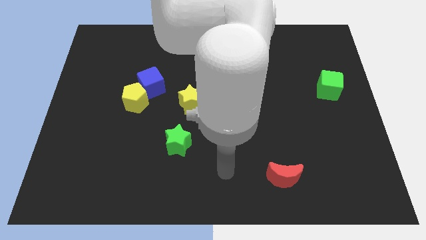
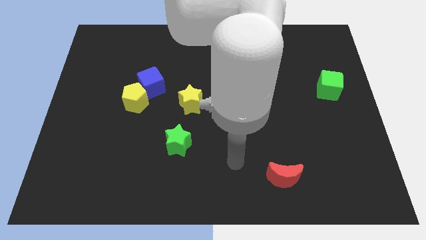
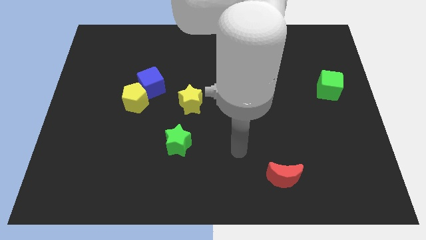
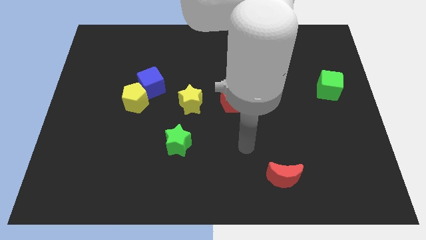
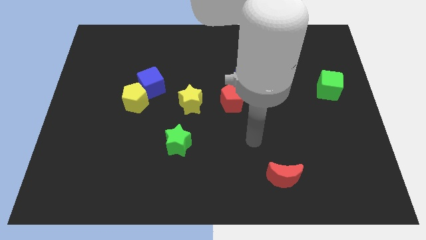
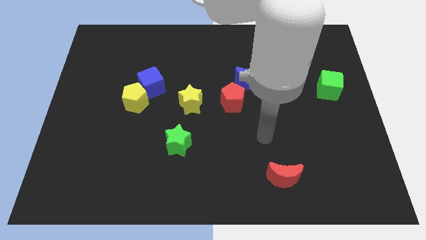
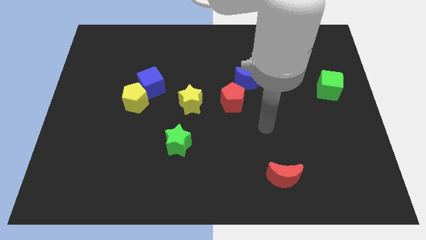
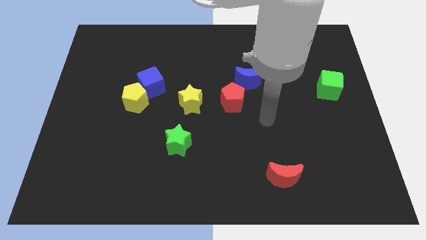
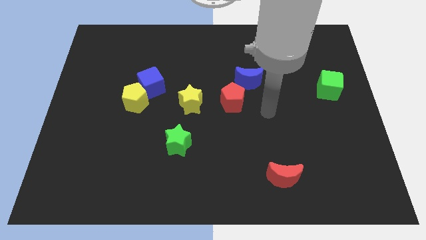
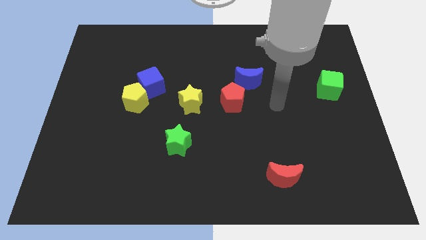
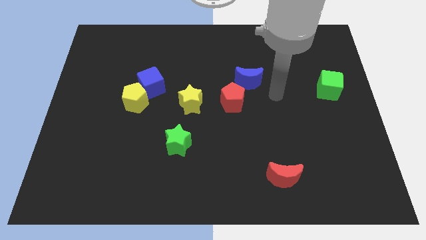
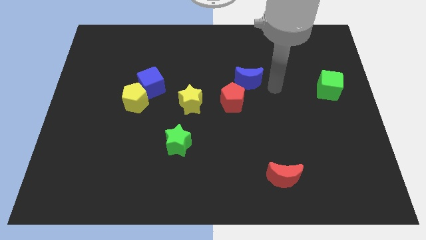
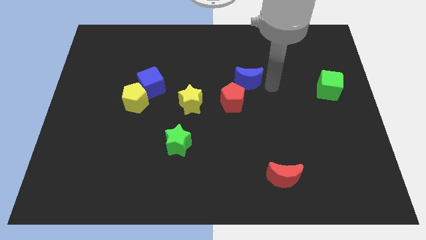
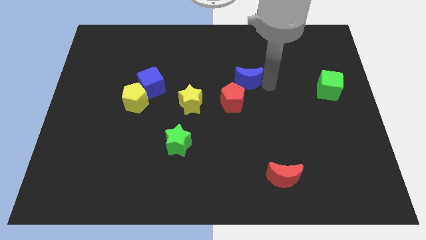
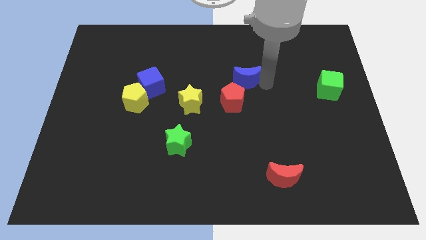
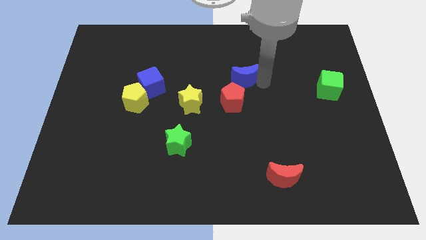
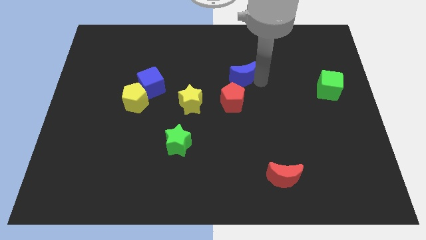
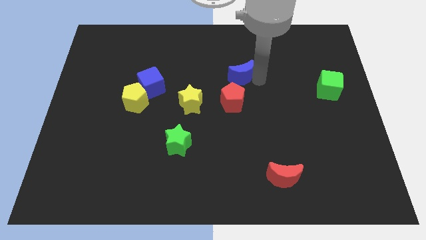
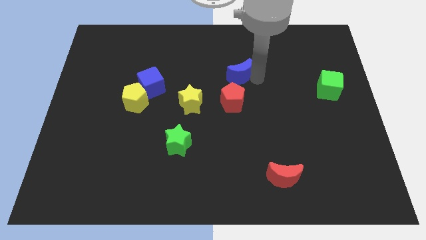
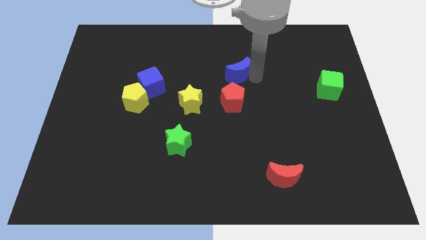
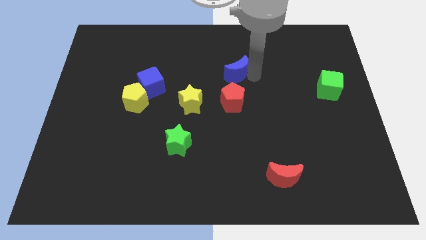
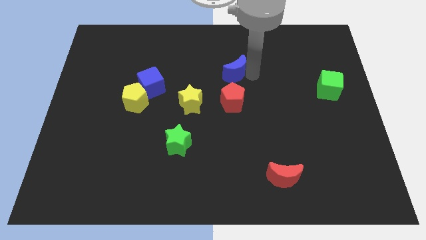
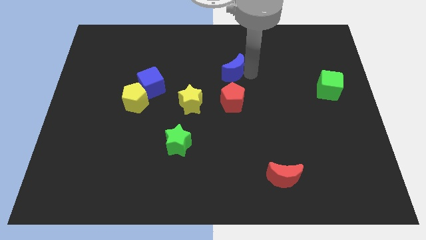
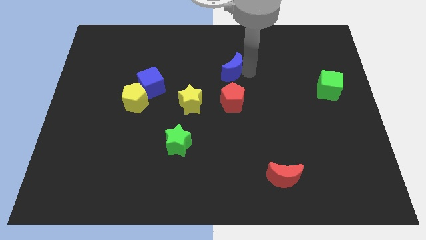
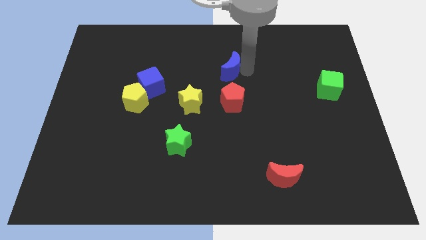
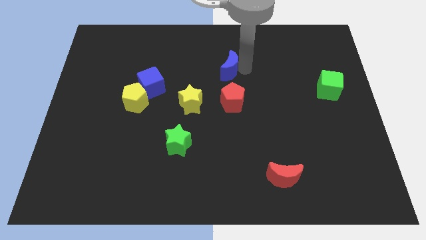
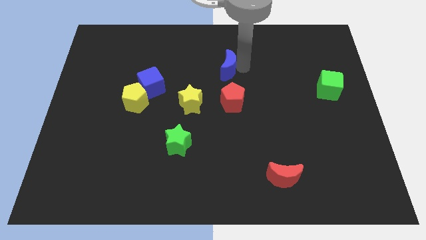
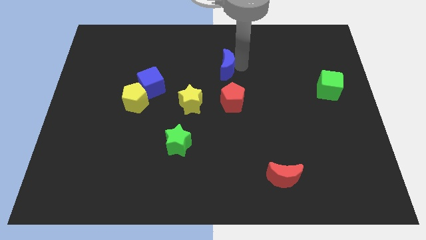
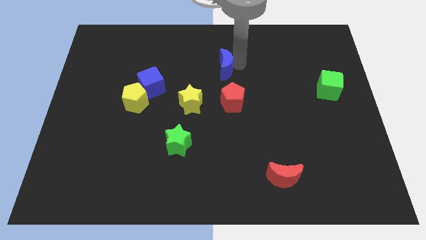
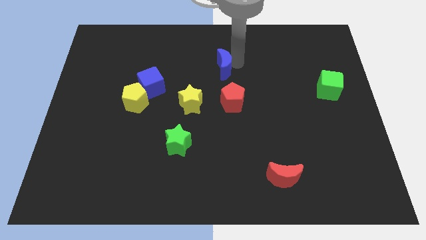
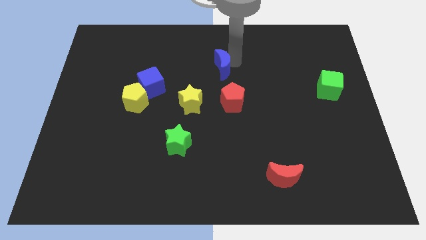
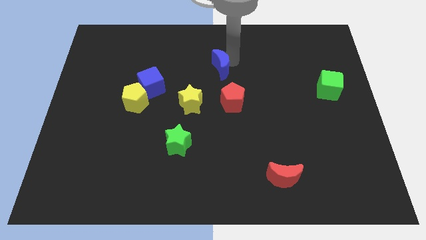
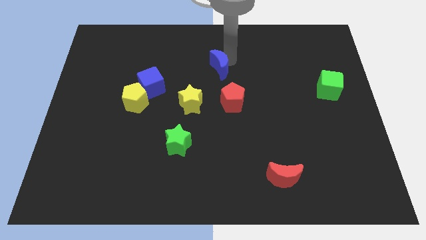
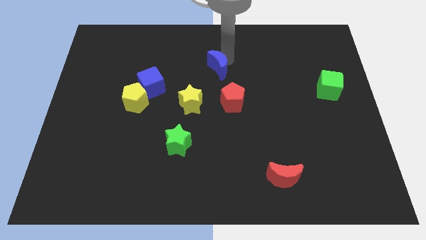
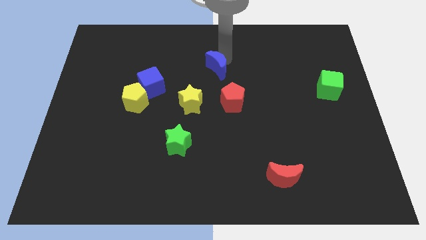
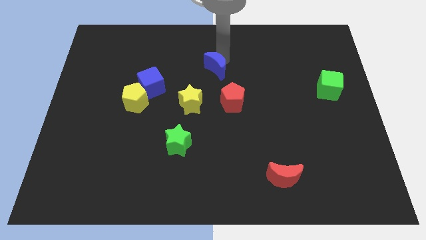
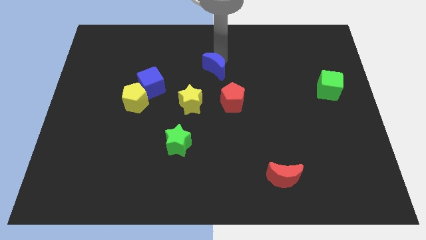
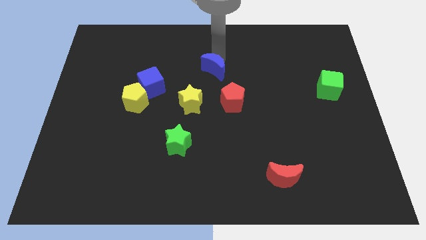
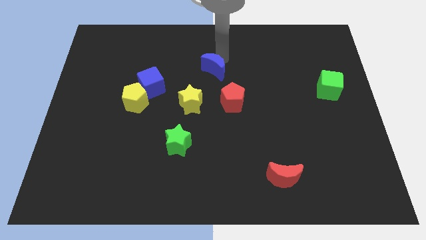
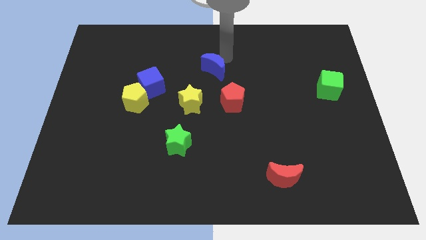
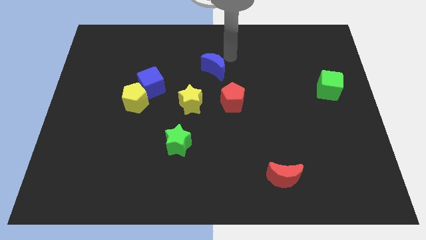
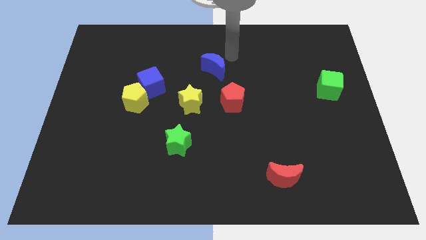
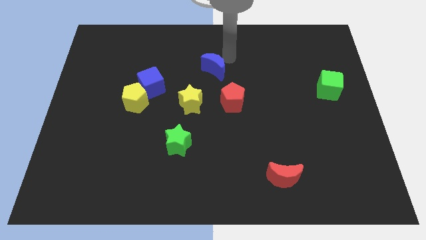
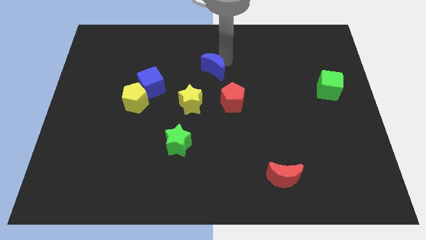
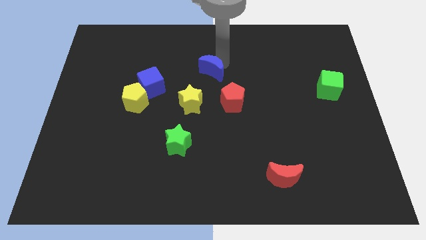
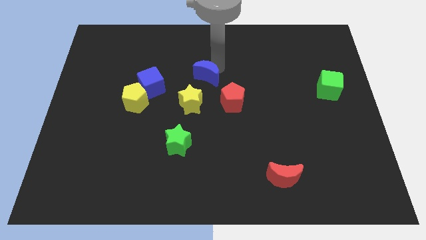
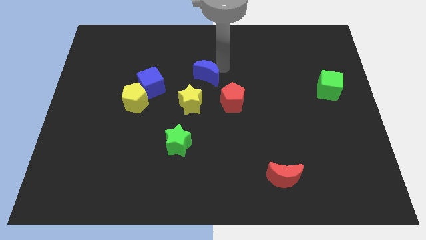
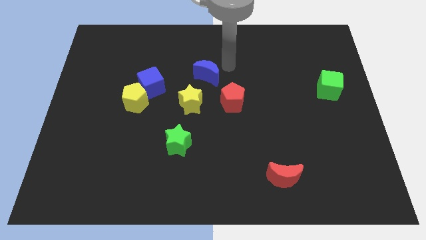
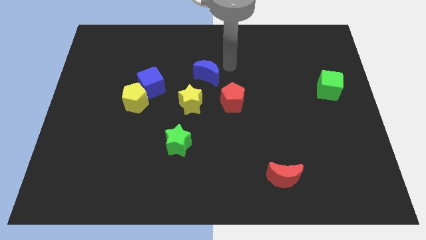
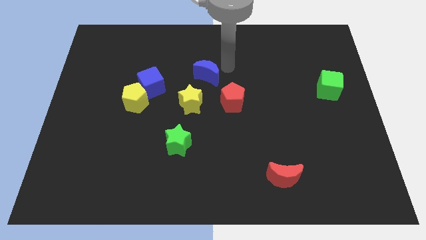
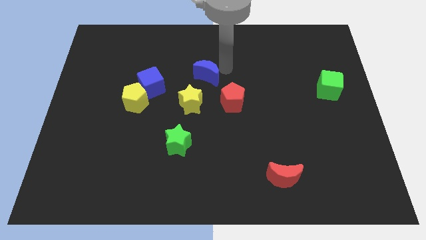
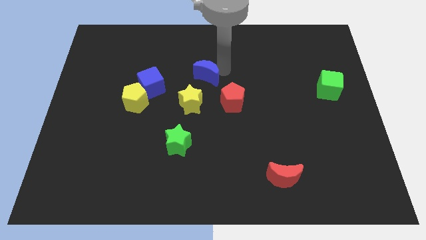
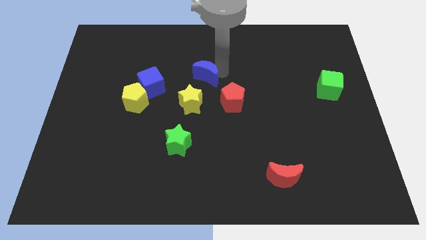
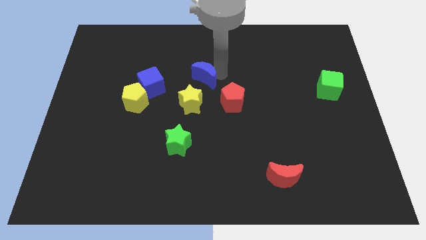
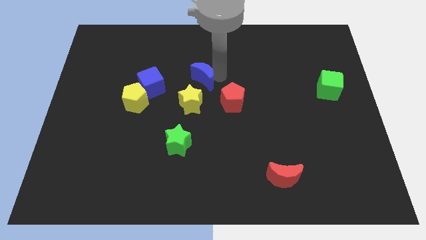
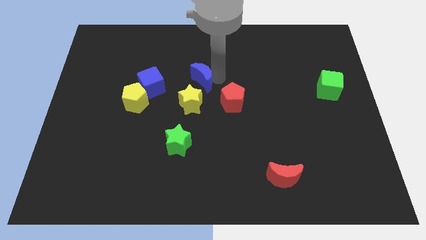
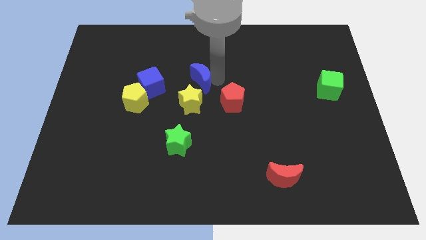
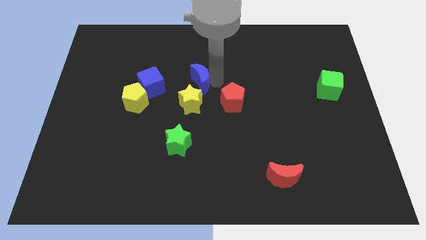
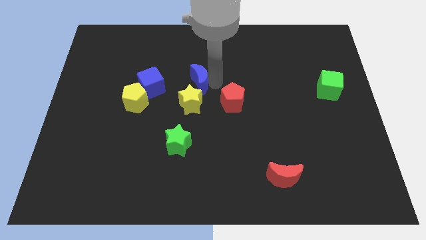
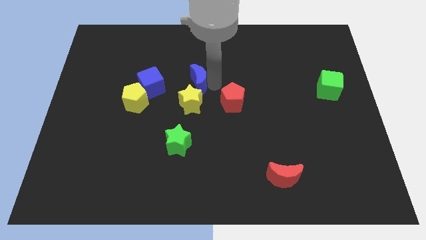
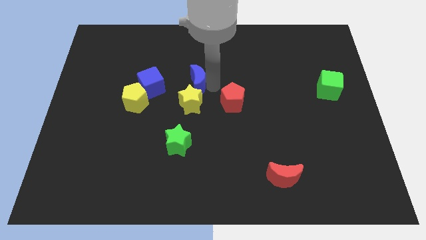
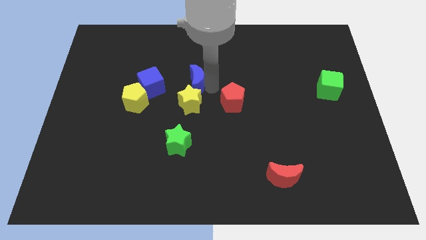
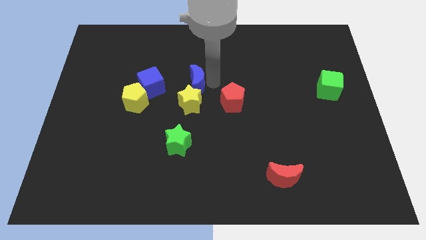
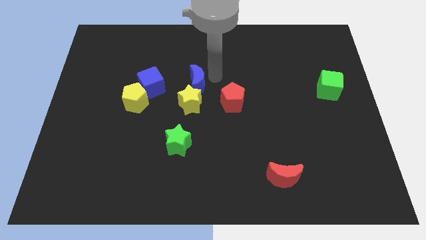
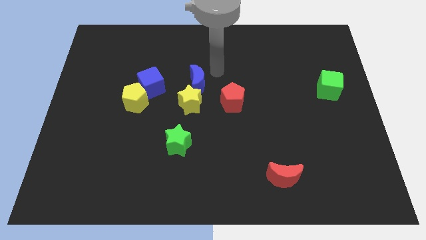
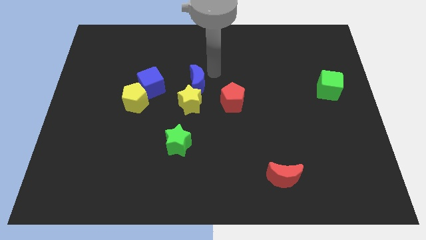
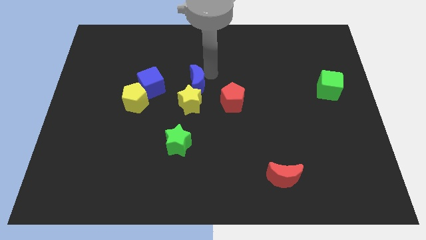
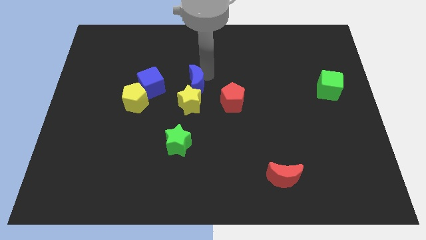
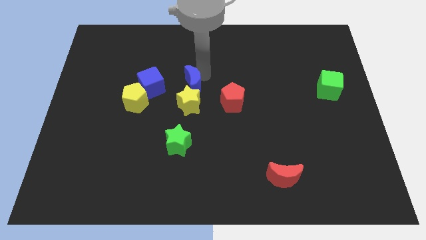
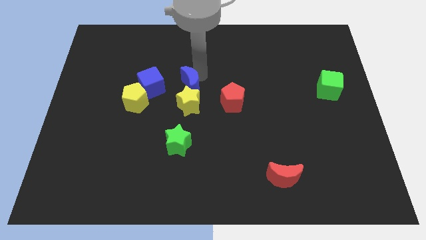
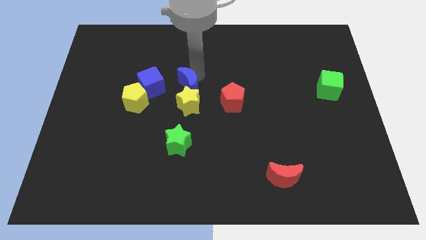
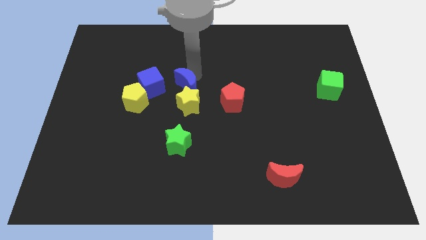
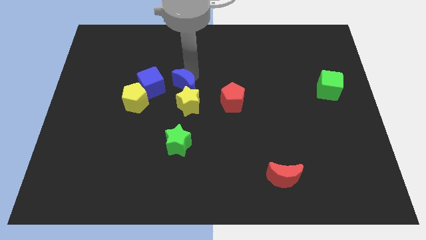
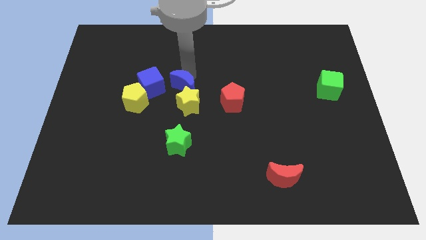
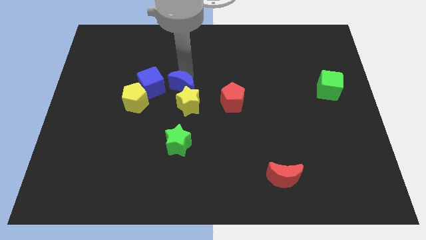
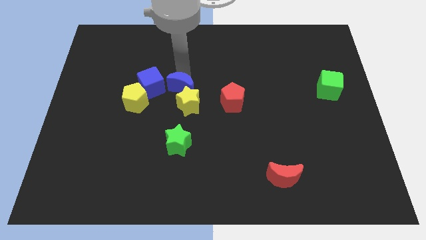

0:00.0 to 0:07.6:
move the blue moon diagonally down and to the right of the blue cube
